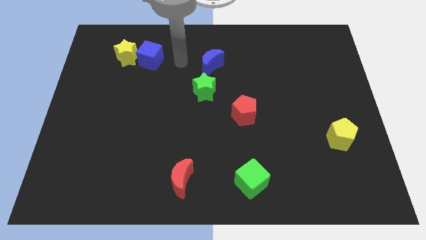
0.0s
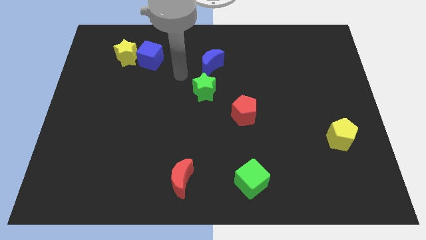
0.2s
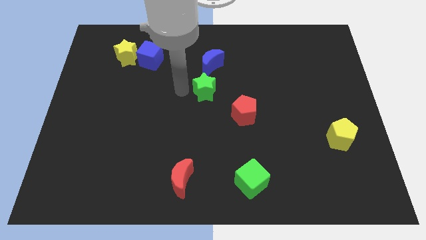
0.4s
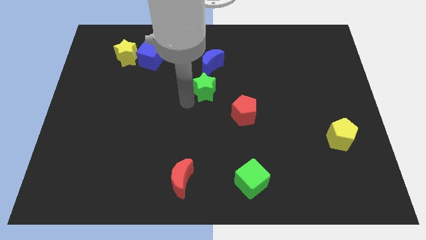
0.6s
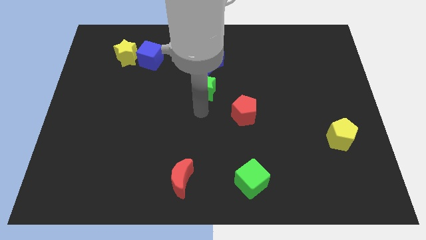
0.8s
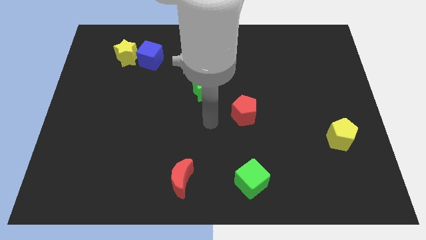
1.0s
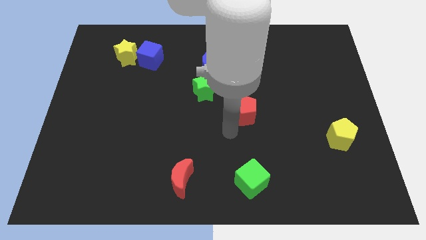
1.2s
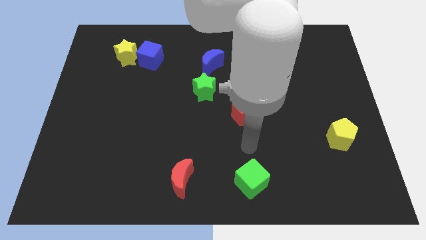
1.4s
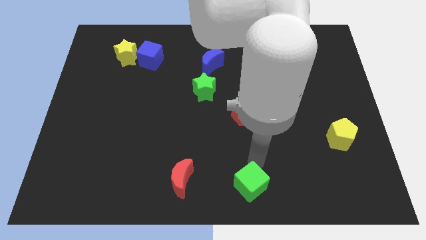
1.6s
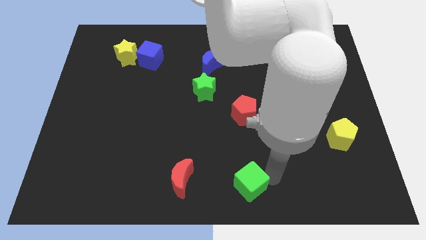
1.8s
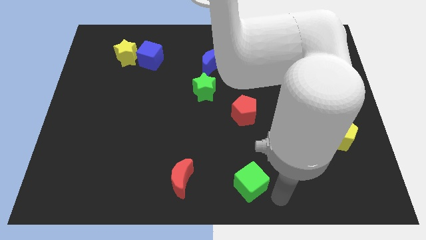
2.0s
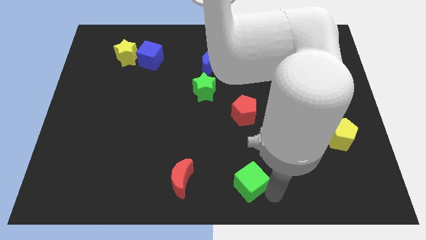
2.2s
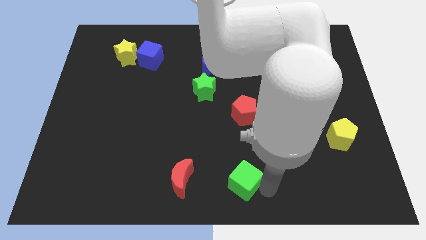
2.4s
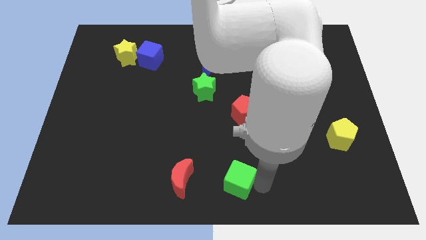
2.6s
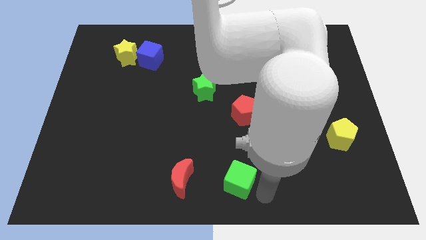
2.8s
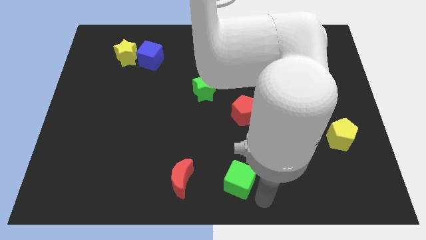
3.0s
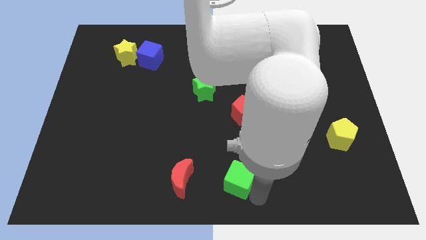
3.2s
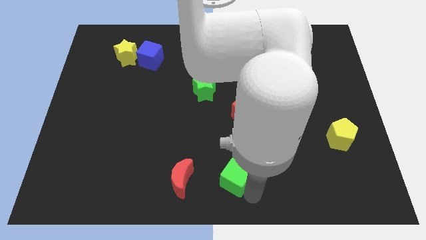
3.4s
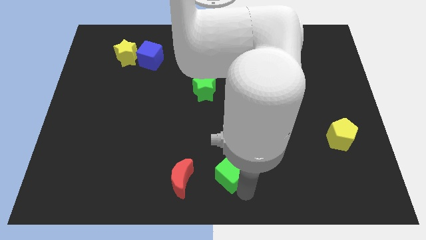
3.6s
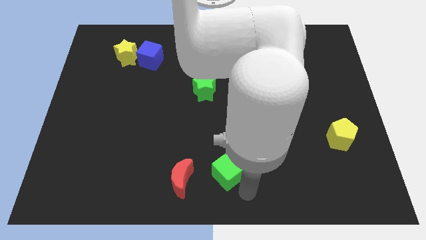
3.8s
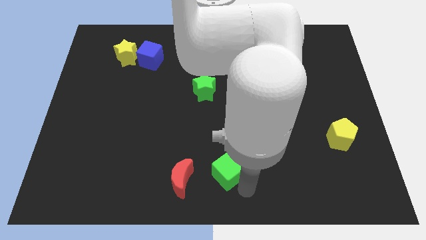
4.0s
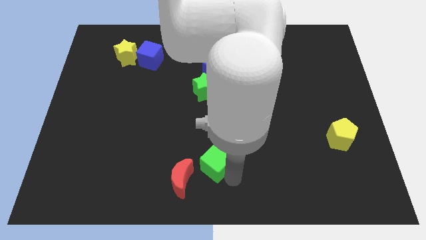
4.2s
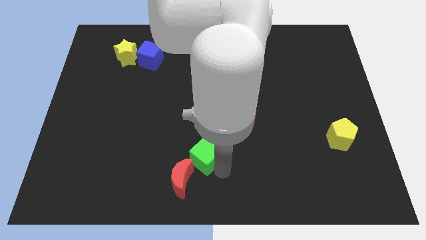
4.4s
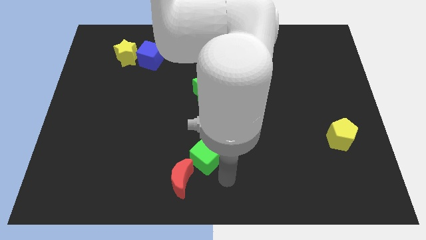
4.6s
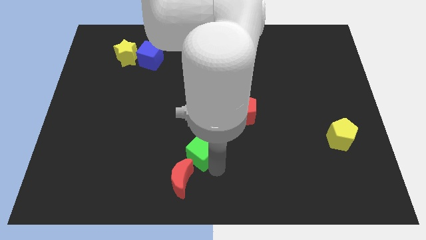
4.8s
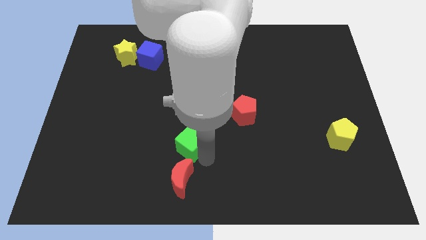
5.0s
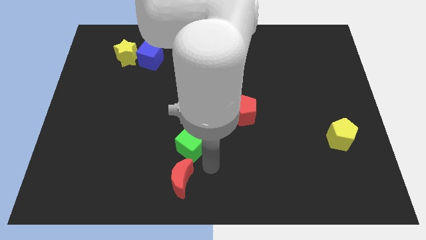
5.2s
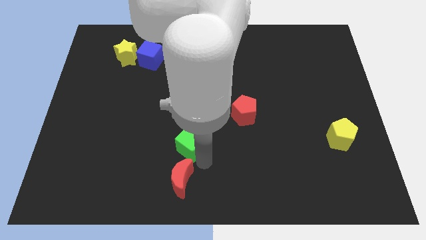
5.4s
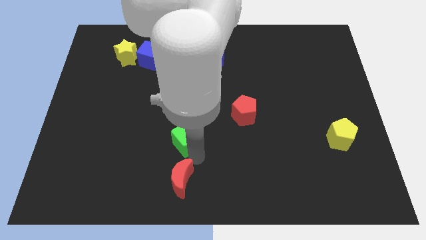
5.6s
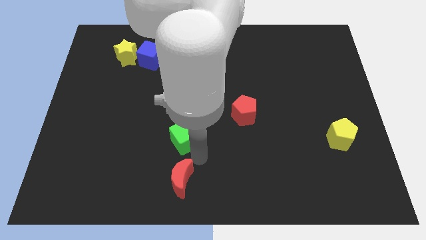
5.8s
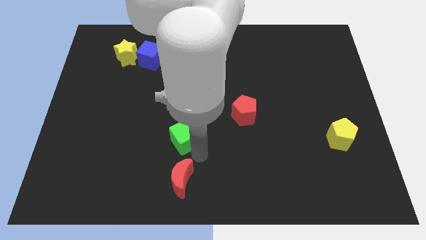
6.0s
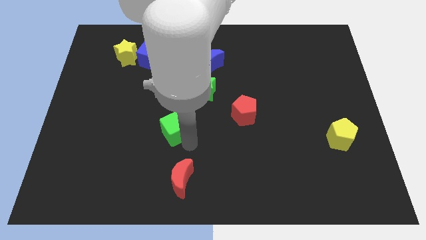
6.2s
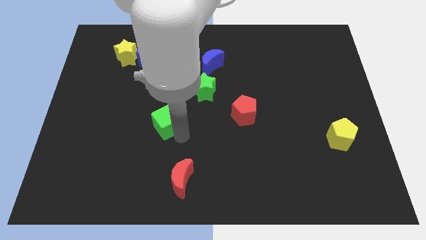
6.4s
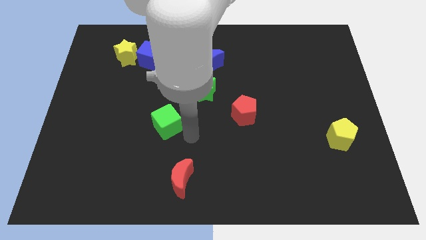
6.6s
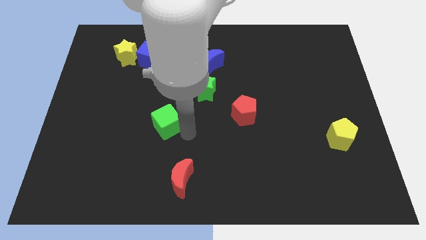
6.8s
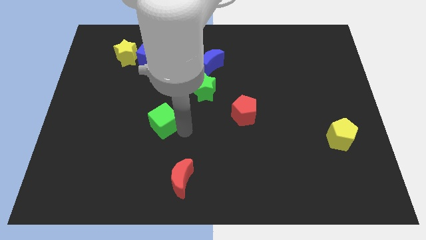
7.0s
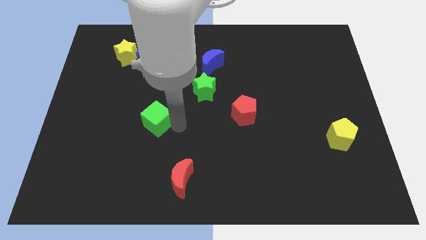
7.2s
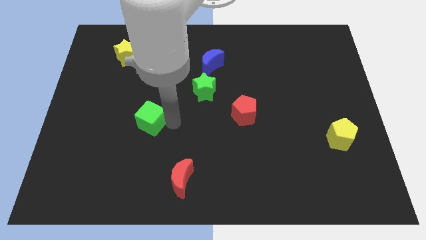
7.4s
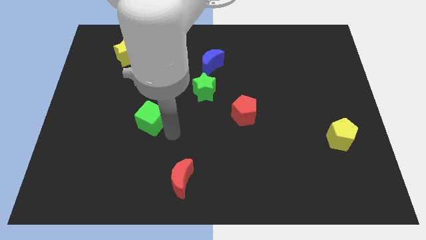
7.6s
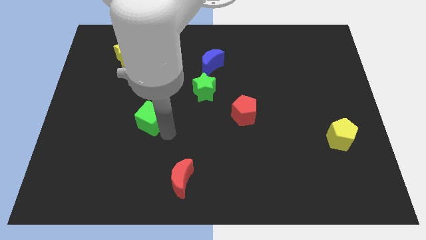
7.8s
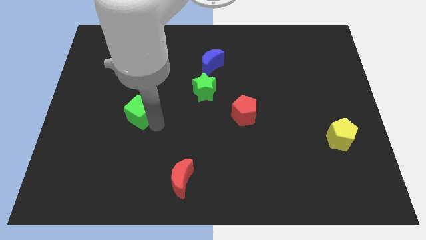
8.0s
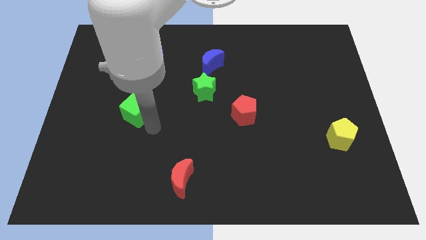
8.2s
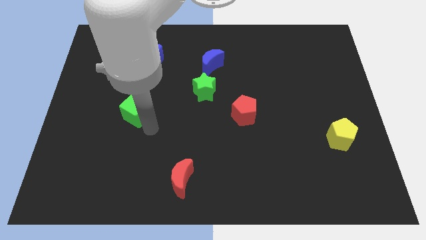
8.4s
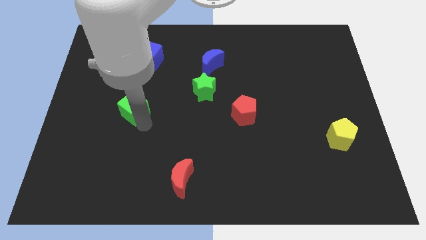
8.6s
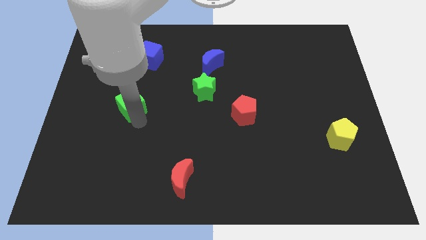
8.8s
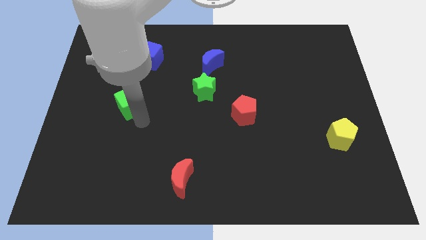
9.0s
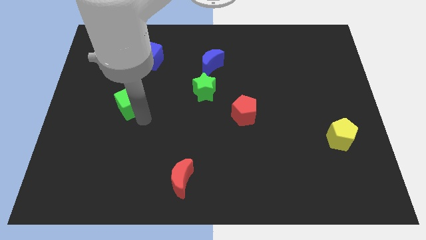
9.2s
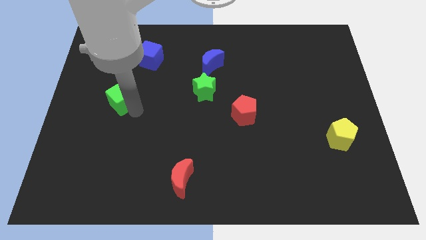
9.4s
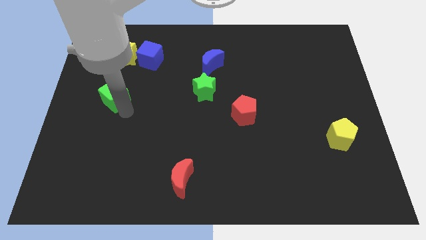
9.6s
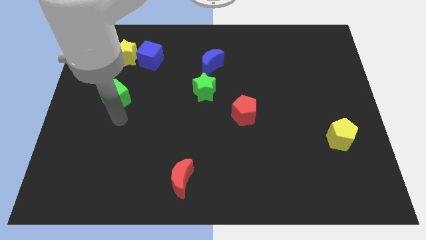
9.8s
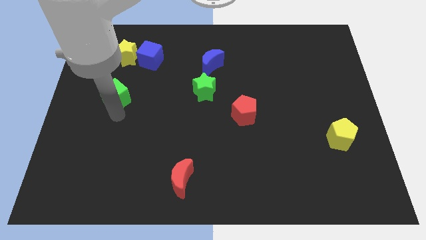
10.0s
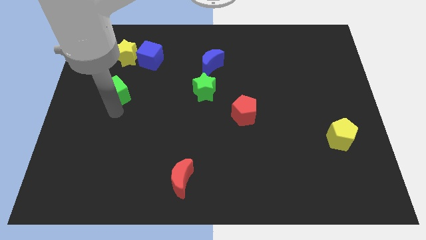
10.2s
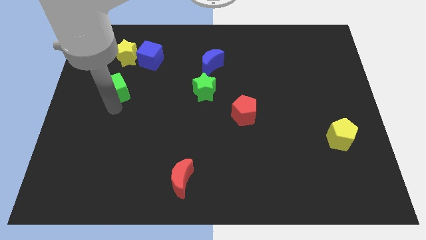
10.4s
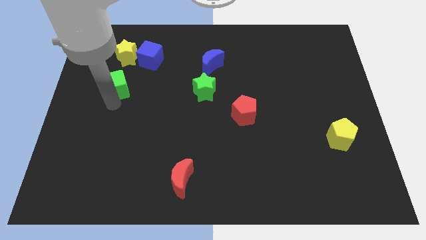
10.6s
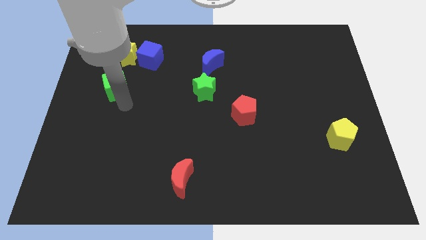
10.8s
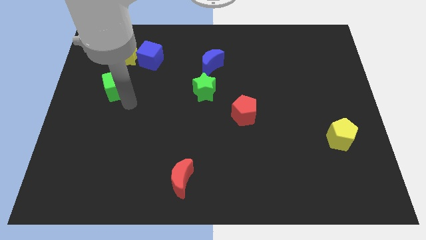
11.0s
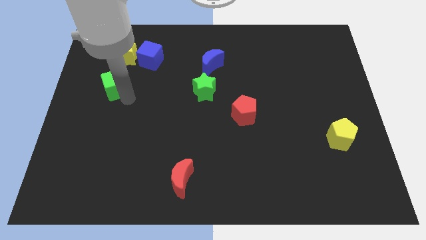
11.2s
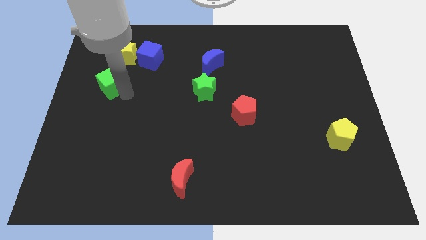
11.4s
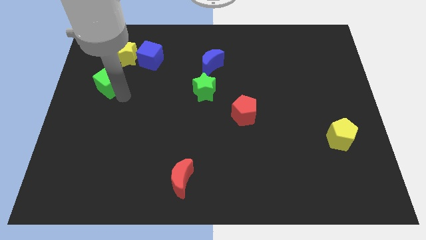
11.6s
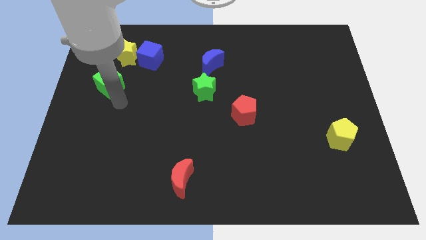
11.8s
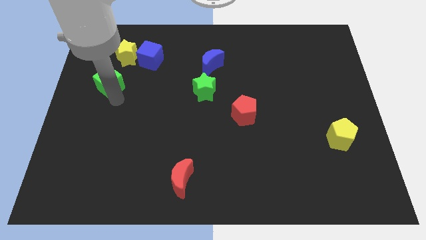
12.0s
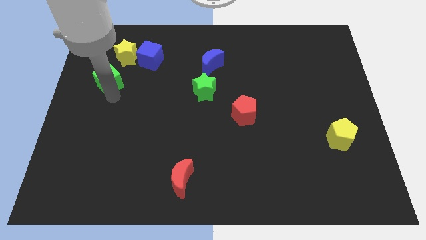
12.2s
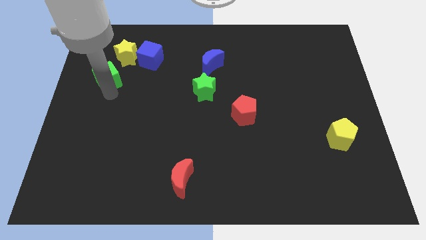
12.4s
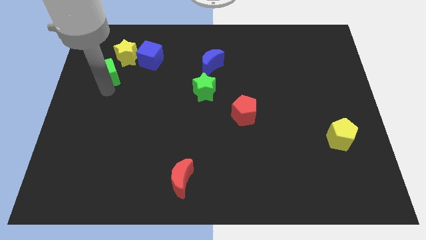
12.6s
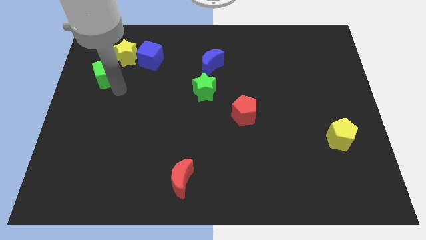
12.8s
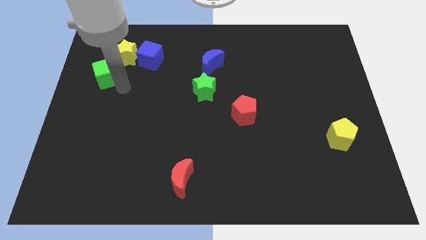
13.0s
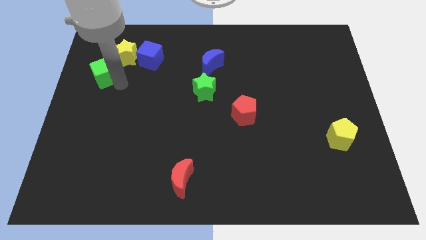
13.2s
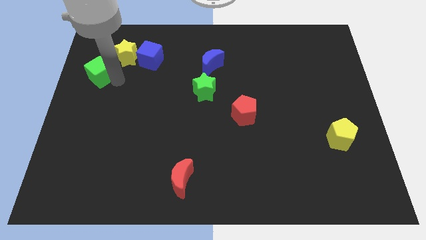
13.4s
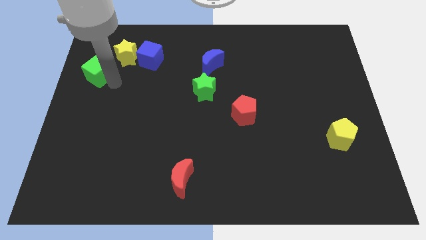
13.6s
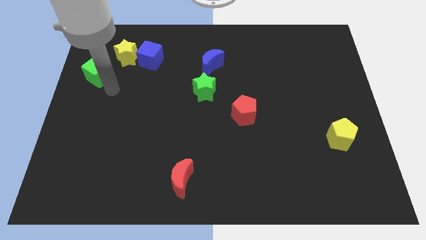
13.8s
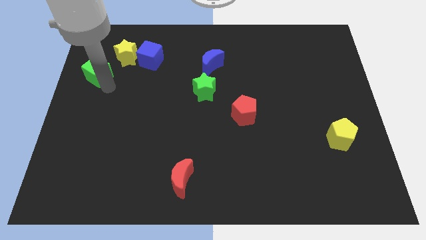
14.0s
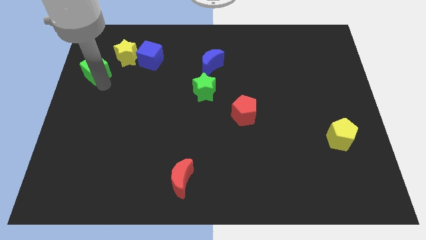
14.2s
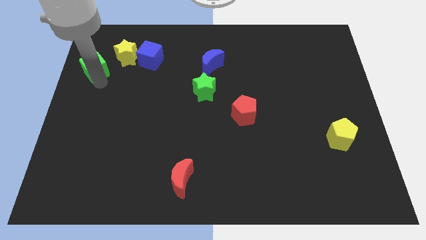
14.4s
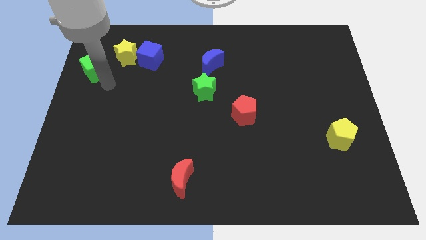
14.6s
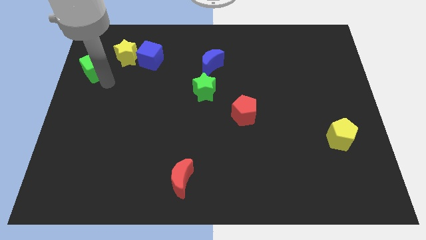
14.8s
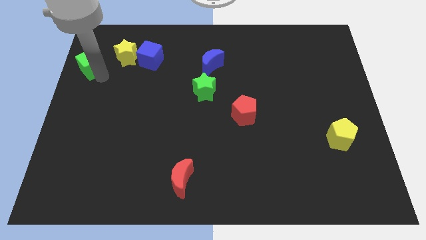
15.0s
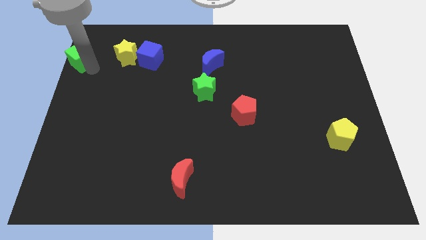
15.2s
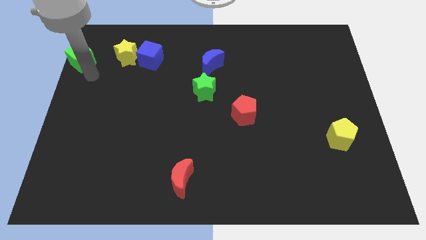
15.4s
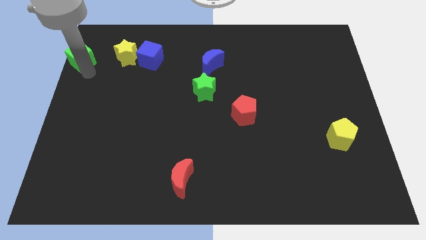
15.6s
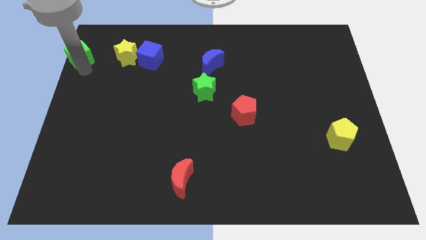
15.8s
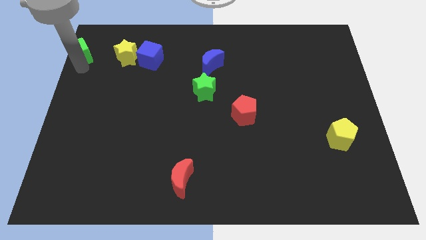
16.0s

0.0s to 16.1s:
put the green cube to the top left
